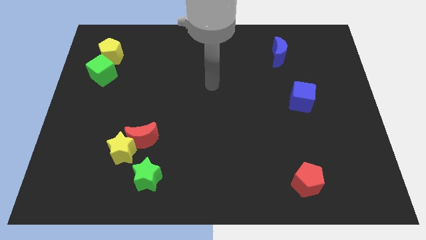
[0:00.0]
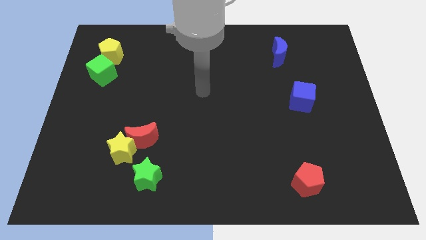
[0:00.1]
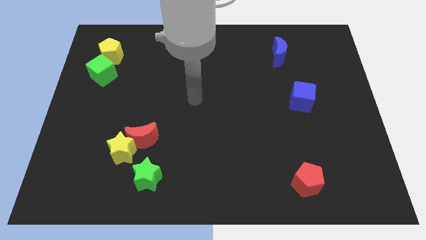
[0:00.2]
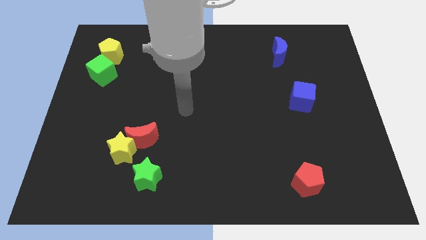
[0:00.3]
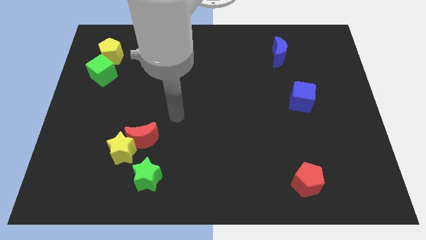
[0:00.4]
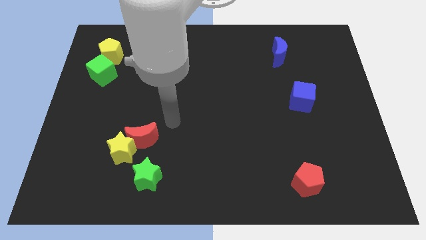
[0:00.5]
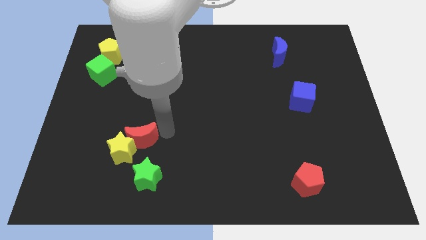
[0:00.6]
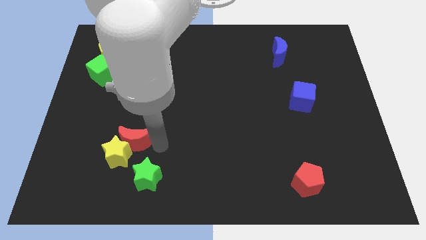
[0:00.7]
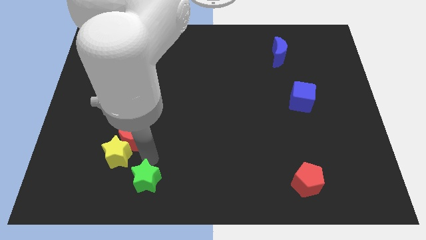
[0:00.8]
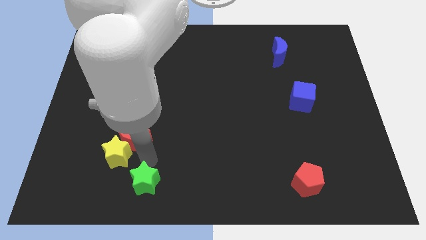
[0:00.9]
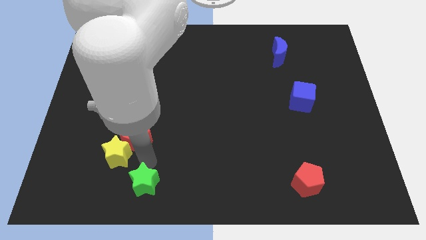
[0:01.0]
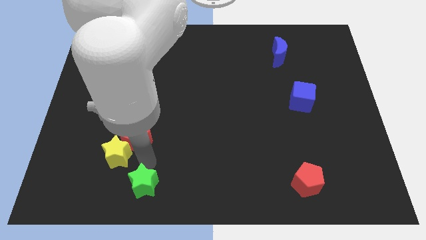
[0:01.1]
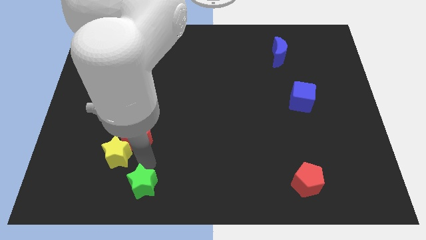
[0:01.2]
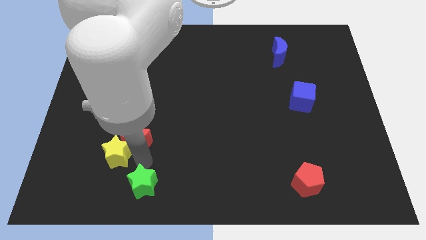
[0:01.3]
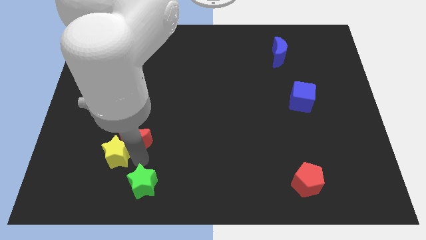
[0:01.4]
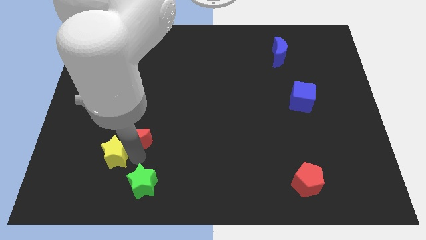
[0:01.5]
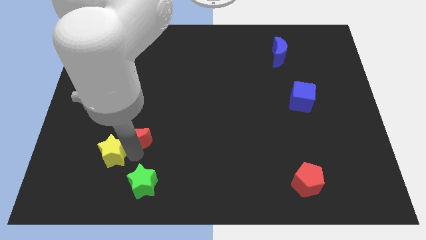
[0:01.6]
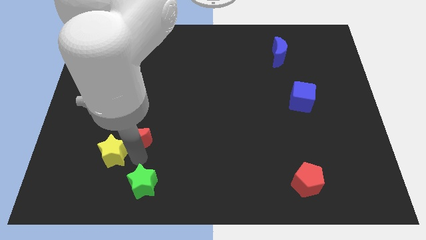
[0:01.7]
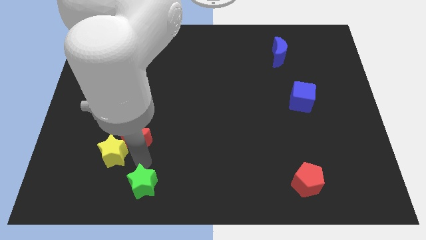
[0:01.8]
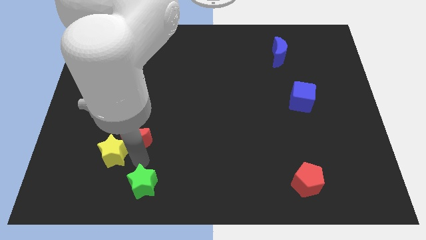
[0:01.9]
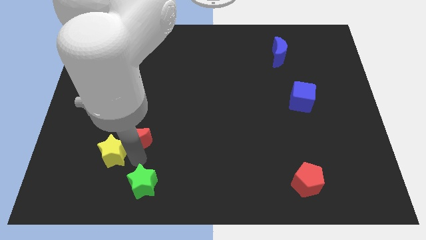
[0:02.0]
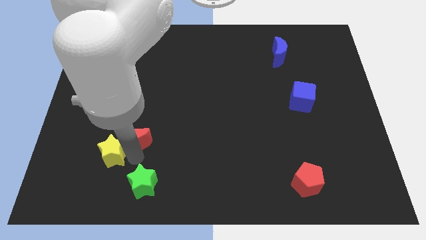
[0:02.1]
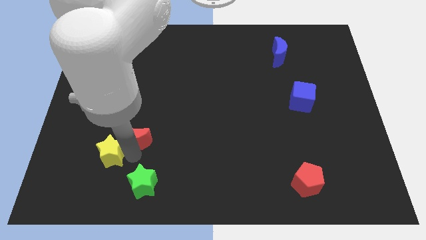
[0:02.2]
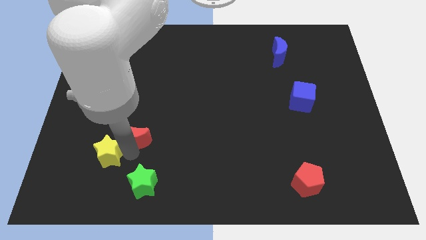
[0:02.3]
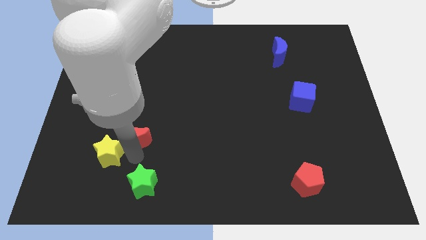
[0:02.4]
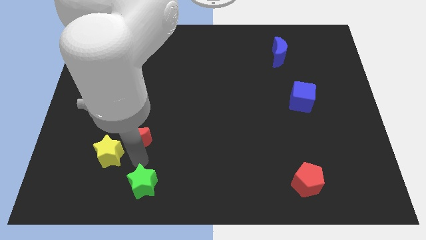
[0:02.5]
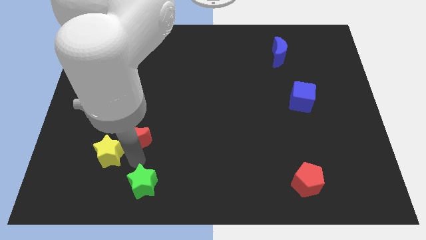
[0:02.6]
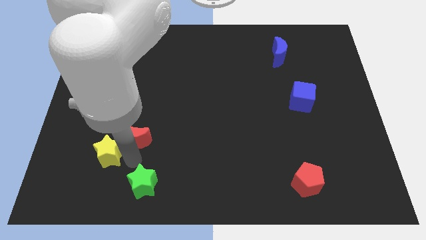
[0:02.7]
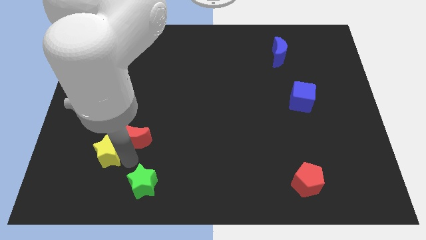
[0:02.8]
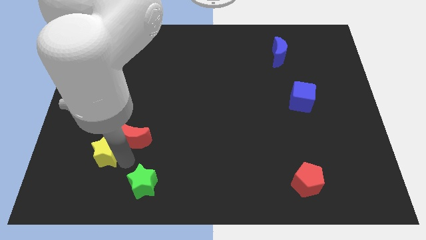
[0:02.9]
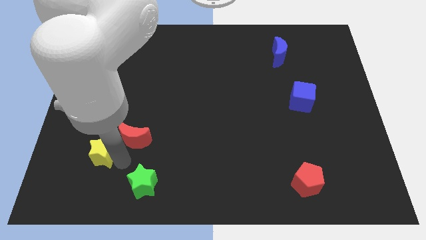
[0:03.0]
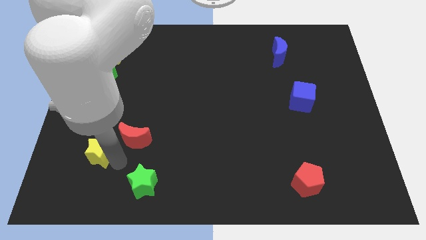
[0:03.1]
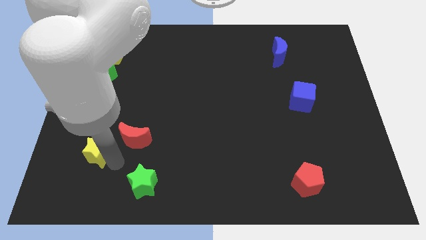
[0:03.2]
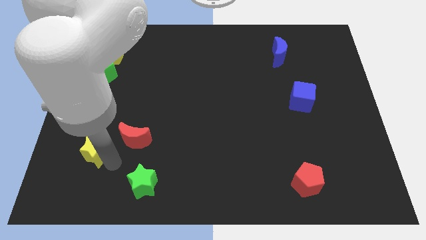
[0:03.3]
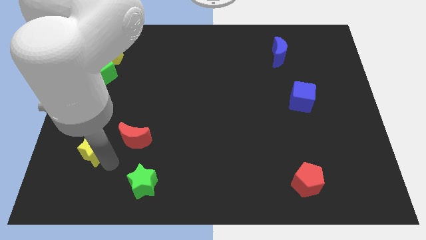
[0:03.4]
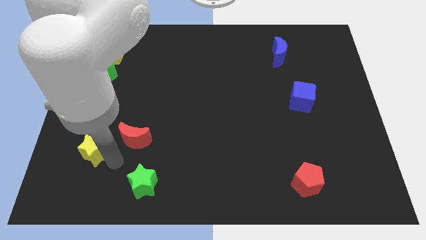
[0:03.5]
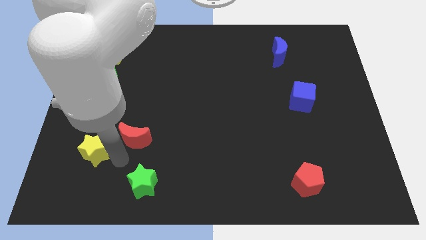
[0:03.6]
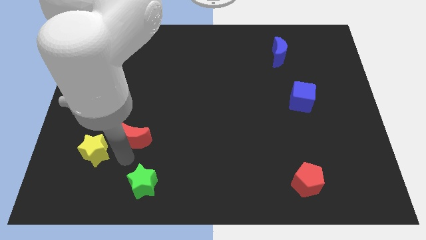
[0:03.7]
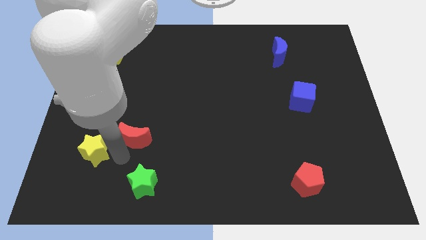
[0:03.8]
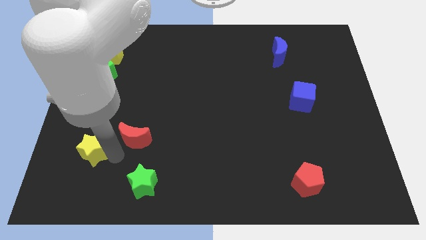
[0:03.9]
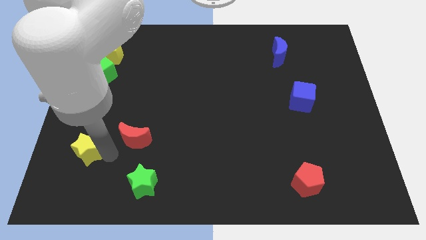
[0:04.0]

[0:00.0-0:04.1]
separate the yellow star from the red moon and green star

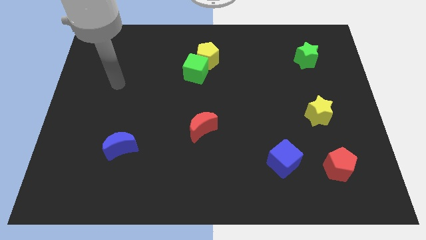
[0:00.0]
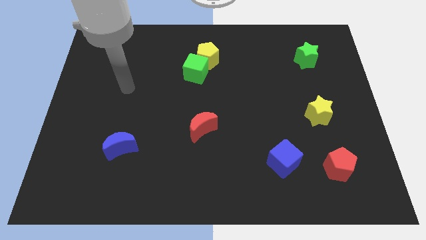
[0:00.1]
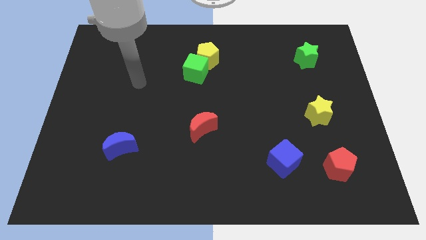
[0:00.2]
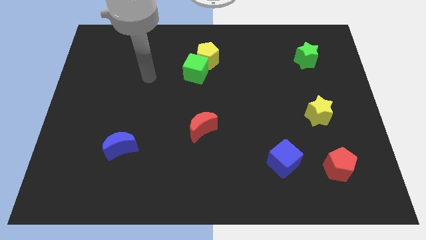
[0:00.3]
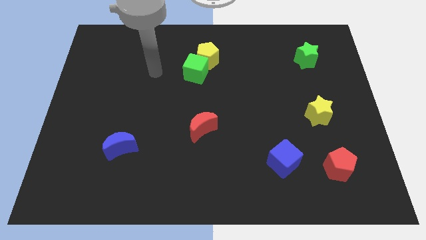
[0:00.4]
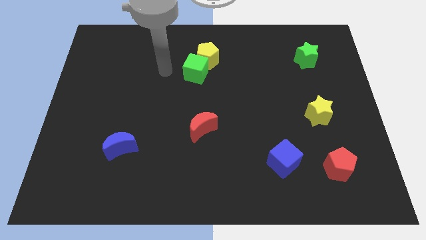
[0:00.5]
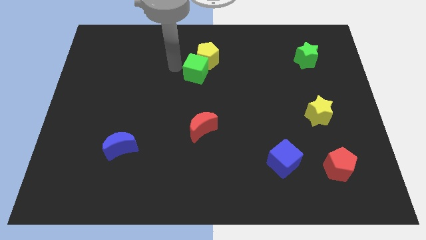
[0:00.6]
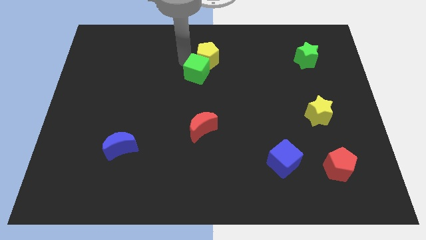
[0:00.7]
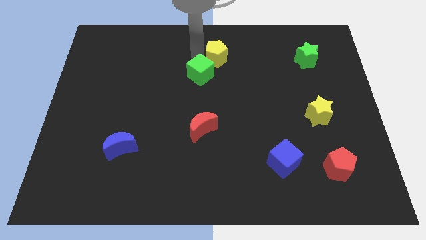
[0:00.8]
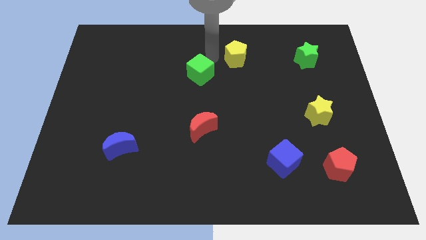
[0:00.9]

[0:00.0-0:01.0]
pull the green cube apart from the yellow pentagon

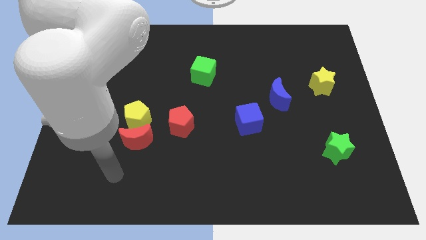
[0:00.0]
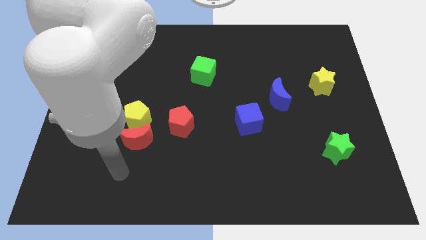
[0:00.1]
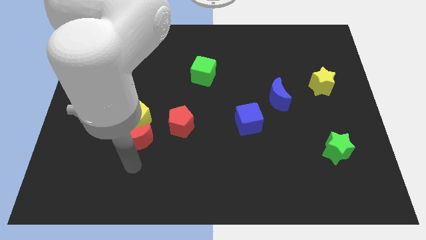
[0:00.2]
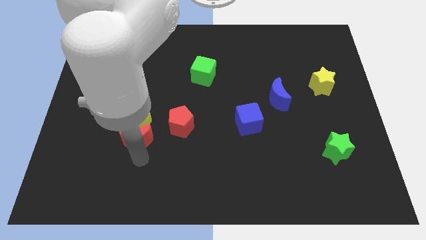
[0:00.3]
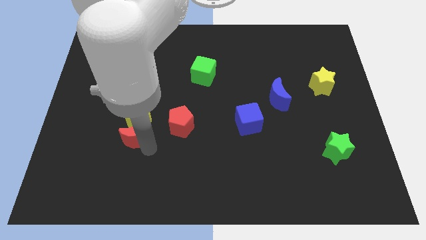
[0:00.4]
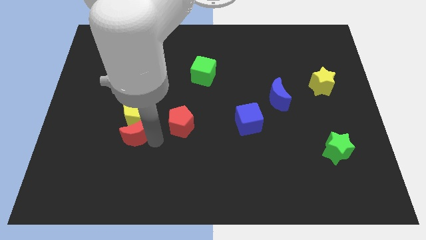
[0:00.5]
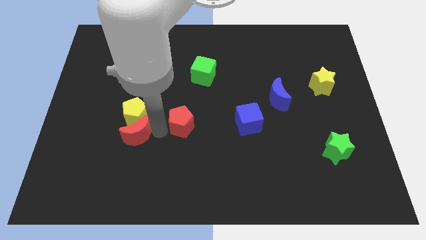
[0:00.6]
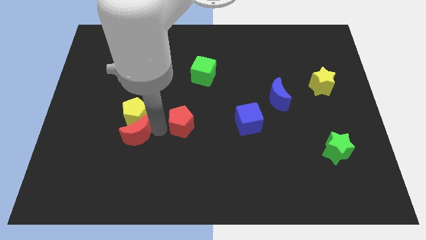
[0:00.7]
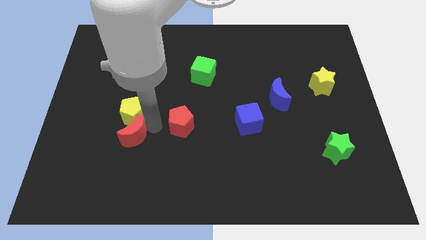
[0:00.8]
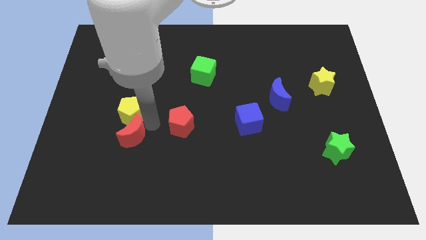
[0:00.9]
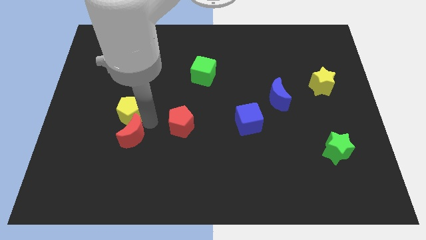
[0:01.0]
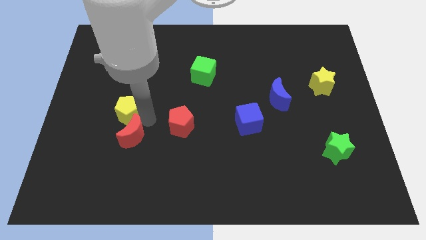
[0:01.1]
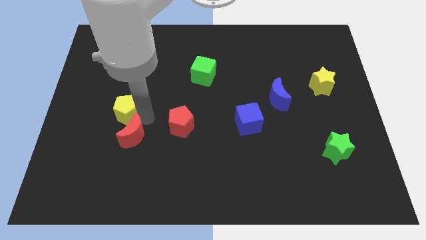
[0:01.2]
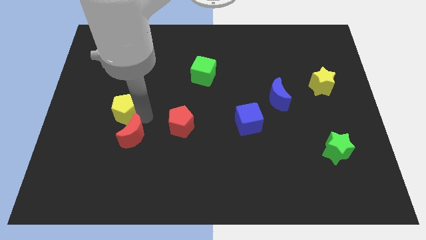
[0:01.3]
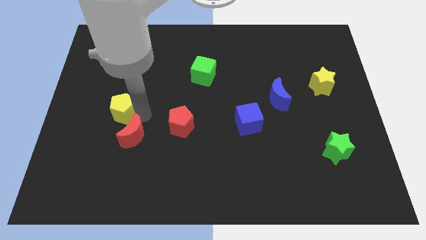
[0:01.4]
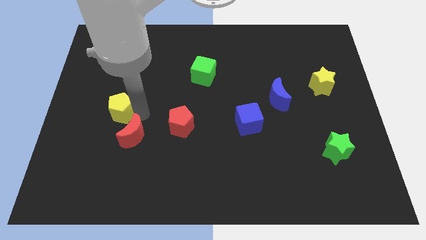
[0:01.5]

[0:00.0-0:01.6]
separate the yellow pentagon from the red moon and red pentagon

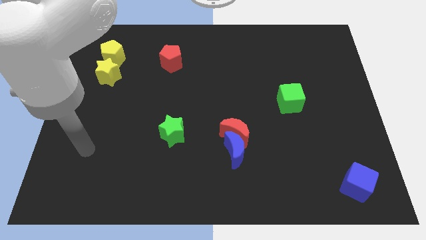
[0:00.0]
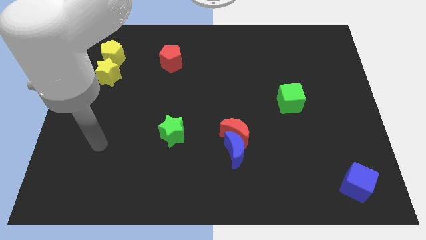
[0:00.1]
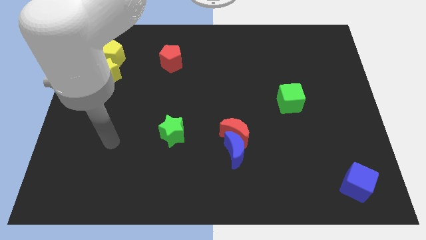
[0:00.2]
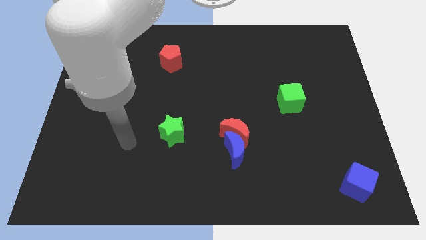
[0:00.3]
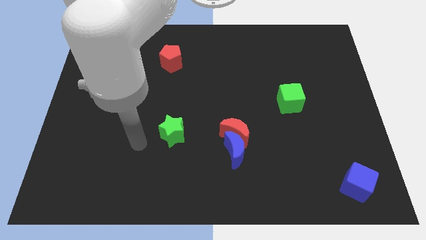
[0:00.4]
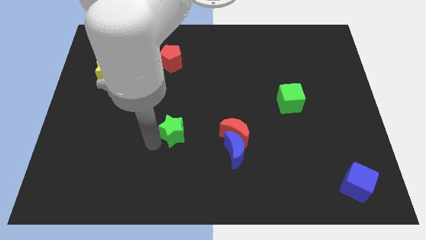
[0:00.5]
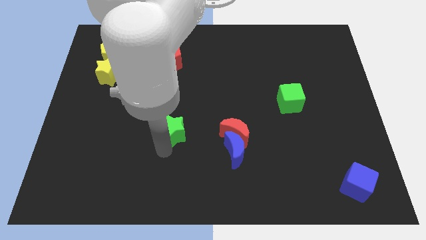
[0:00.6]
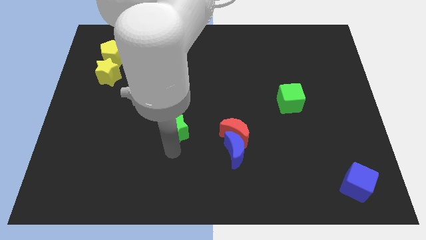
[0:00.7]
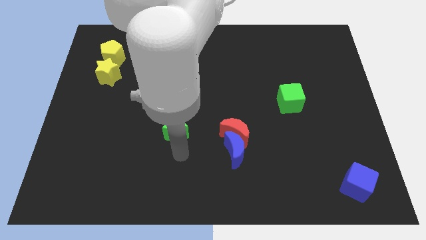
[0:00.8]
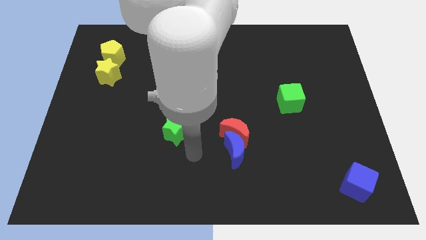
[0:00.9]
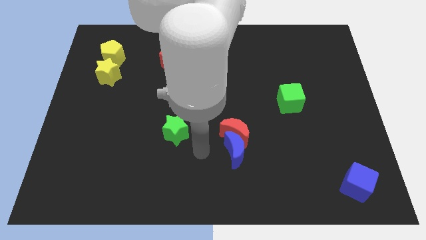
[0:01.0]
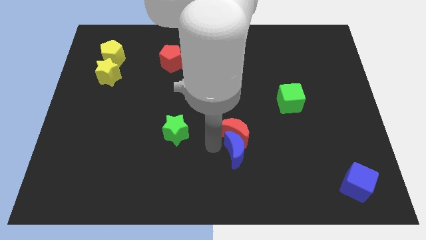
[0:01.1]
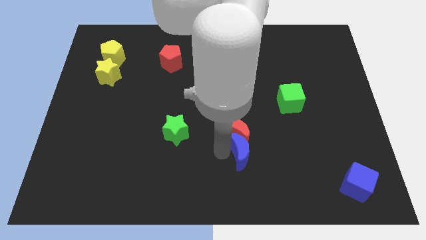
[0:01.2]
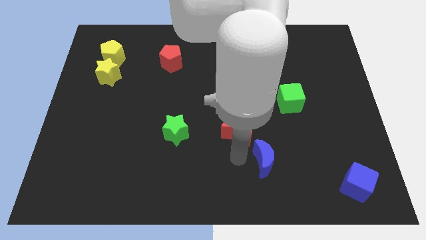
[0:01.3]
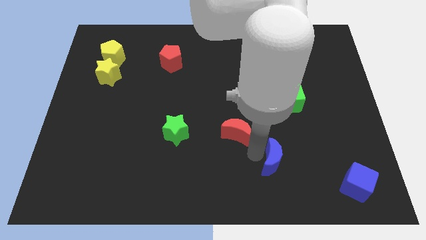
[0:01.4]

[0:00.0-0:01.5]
move the red moon away from the blue moon

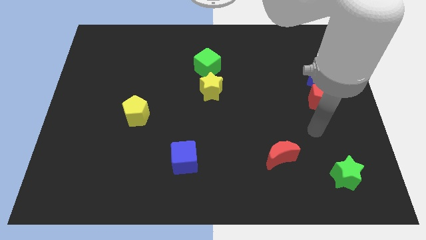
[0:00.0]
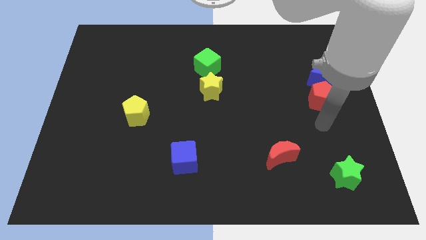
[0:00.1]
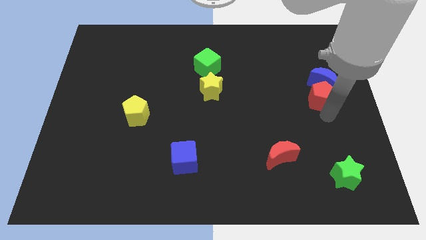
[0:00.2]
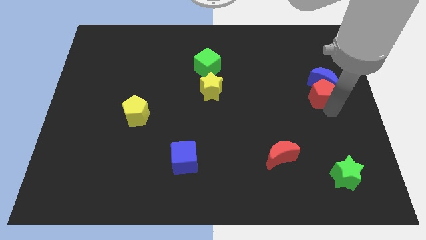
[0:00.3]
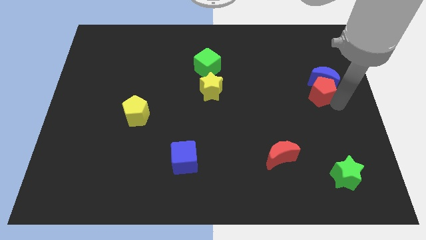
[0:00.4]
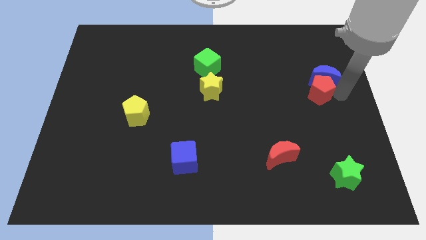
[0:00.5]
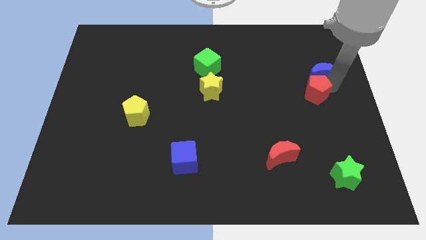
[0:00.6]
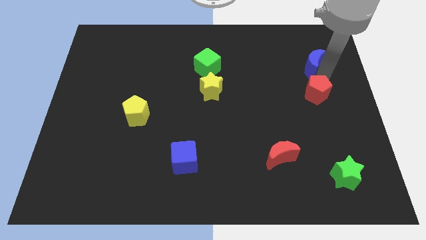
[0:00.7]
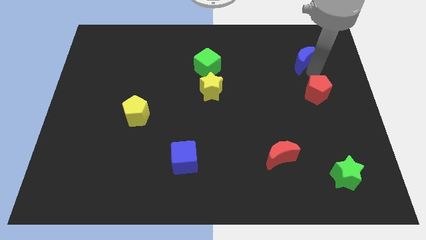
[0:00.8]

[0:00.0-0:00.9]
separate the red pentagon from the blue moon
